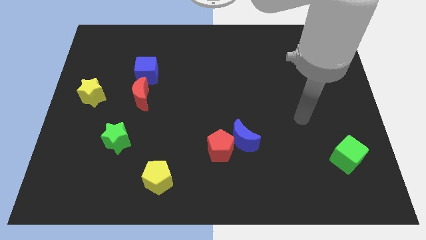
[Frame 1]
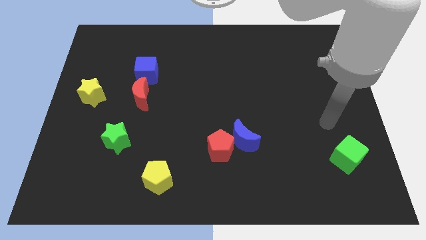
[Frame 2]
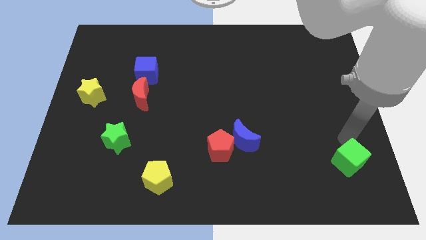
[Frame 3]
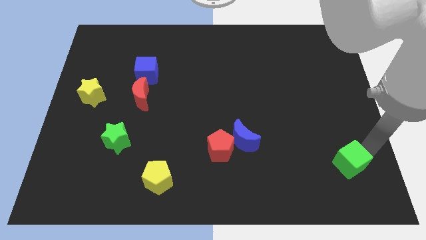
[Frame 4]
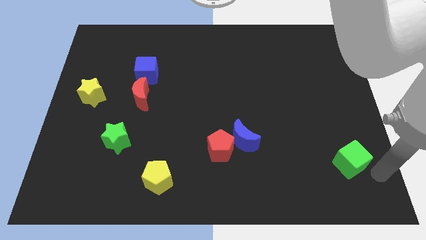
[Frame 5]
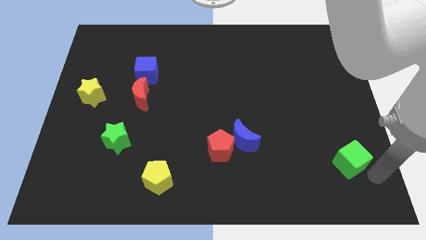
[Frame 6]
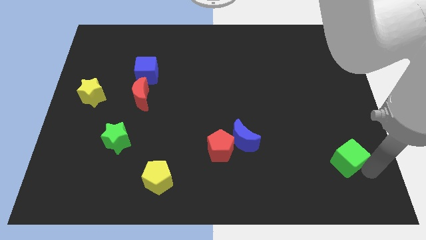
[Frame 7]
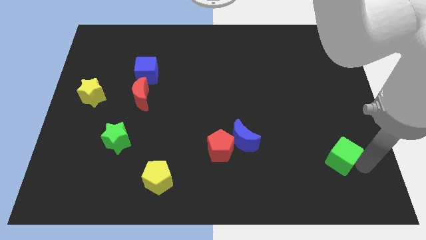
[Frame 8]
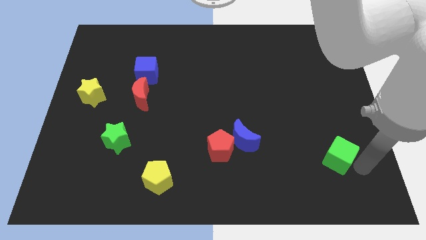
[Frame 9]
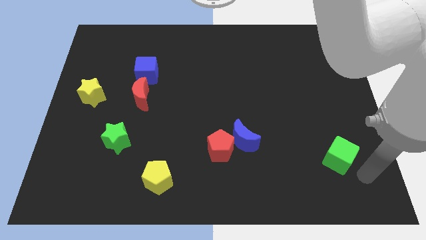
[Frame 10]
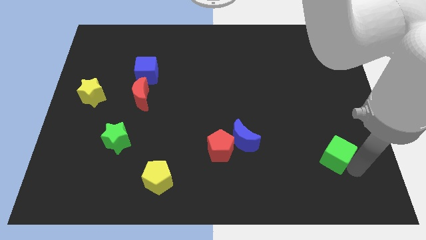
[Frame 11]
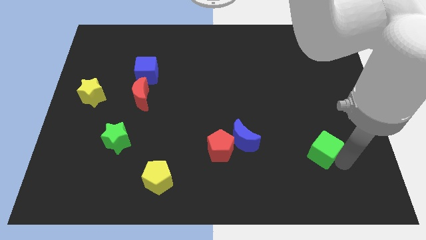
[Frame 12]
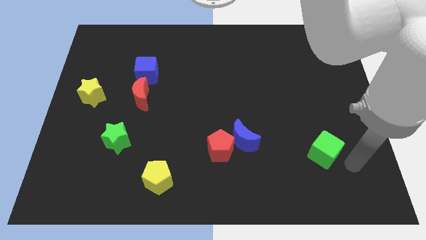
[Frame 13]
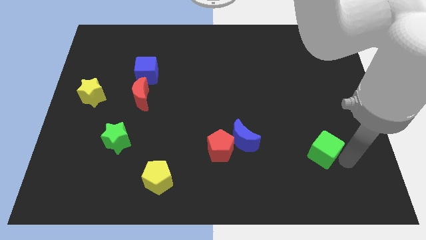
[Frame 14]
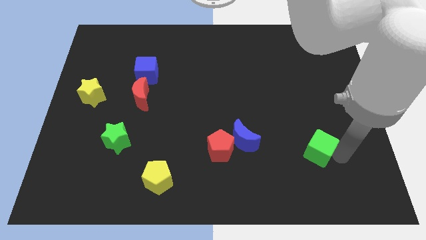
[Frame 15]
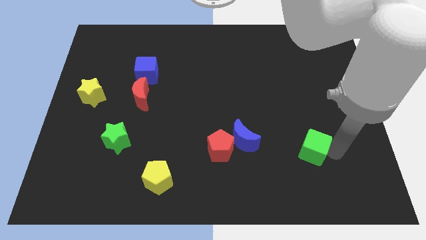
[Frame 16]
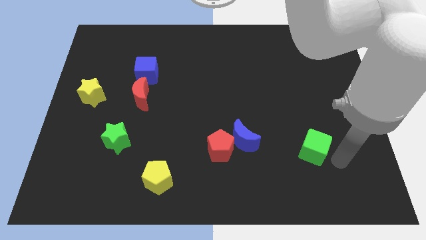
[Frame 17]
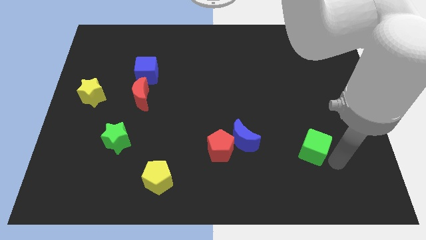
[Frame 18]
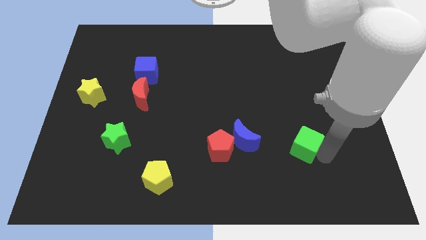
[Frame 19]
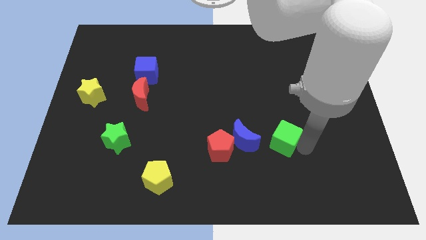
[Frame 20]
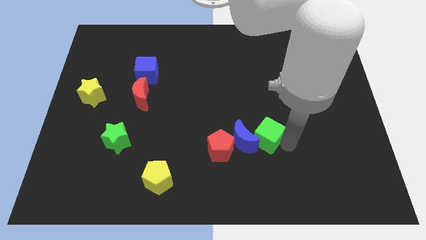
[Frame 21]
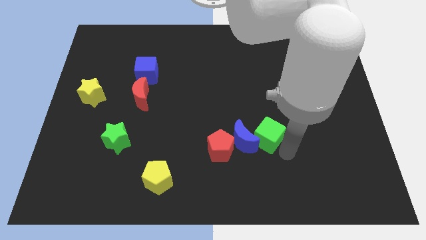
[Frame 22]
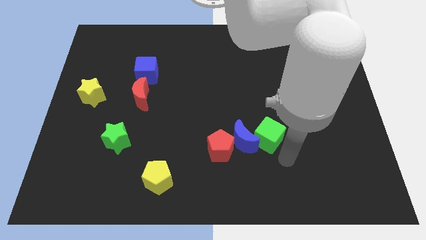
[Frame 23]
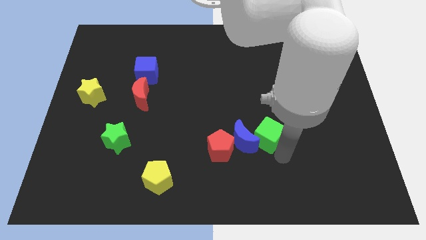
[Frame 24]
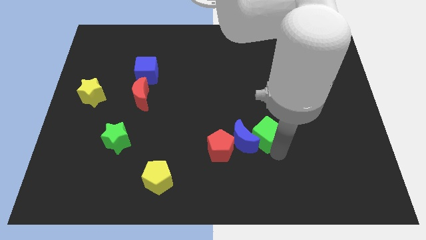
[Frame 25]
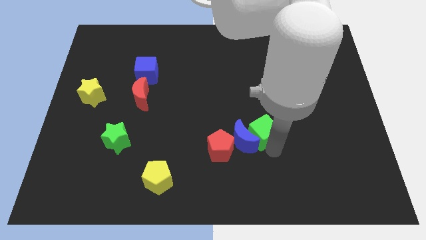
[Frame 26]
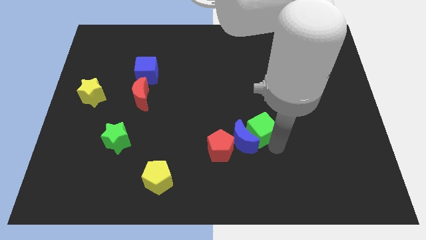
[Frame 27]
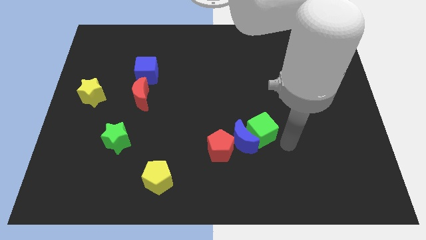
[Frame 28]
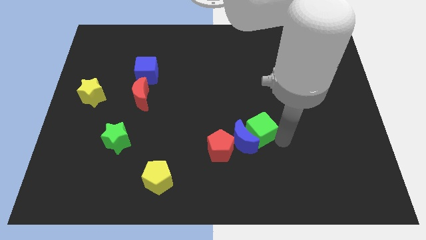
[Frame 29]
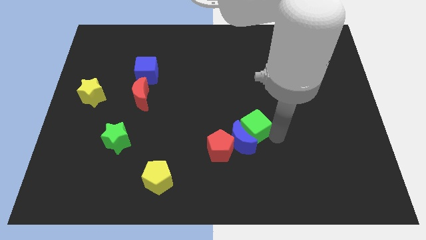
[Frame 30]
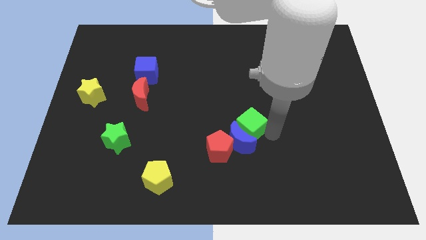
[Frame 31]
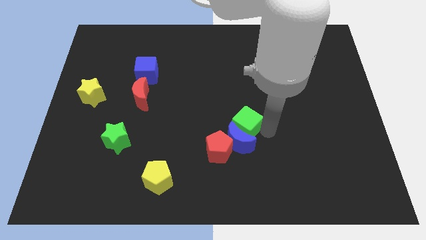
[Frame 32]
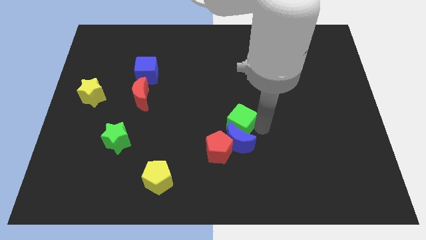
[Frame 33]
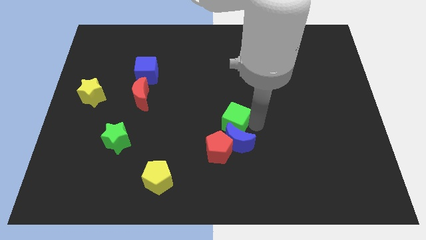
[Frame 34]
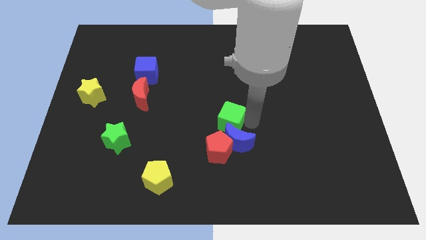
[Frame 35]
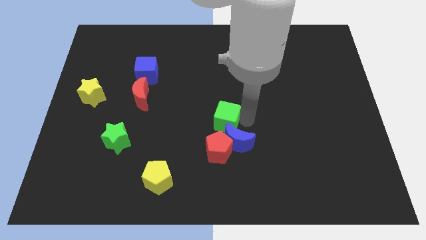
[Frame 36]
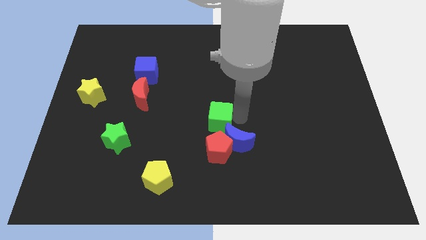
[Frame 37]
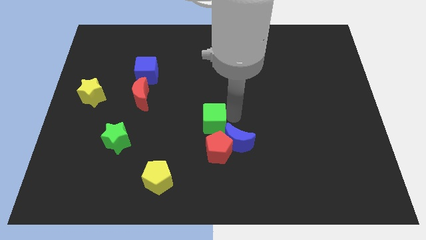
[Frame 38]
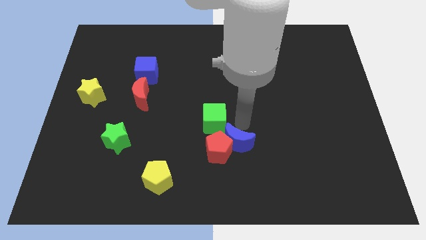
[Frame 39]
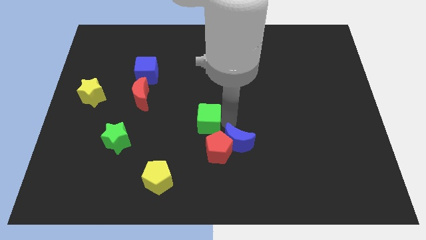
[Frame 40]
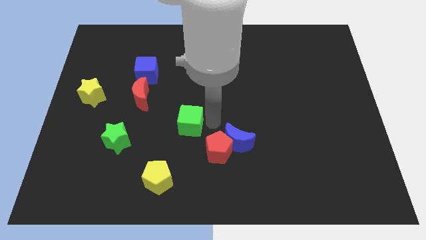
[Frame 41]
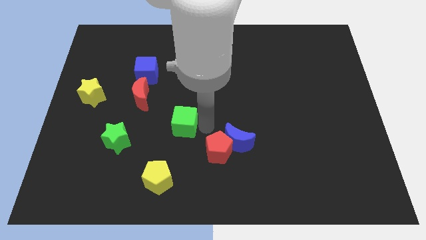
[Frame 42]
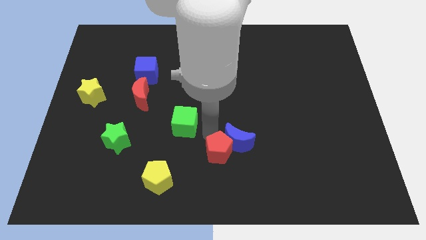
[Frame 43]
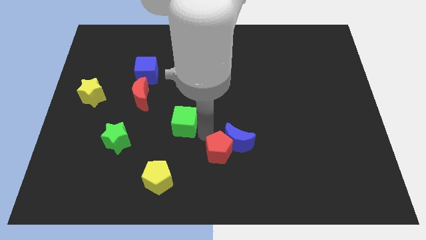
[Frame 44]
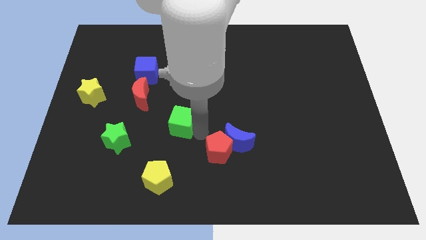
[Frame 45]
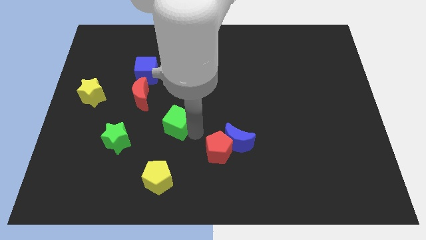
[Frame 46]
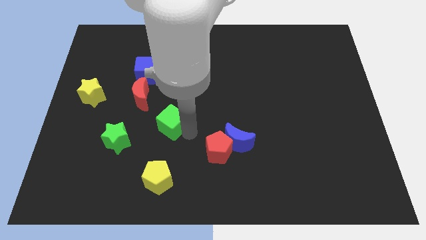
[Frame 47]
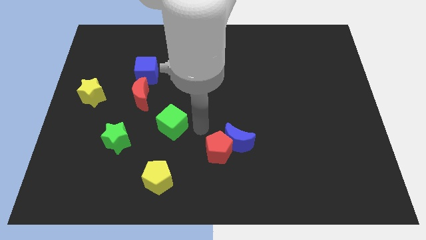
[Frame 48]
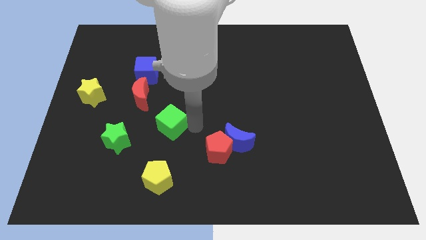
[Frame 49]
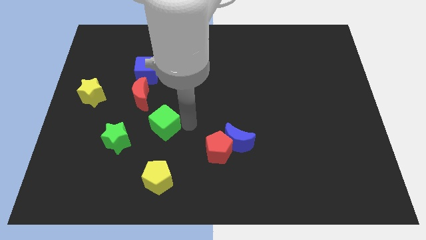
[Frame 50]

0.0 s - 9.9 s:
push the green cube to the top right of the green star

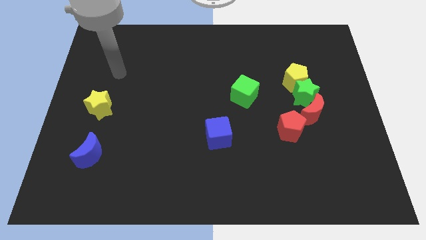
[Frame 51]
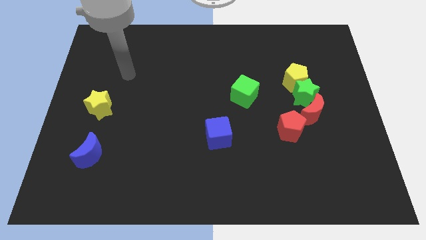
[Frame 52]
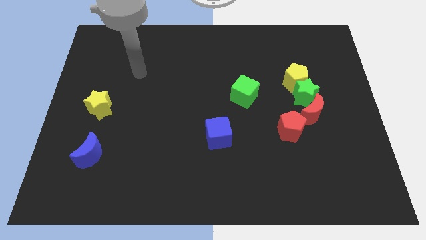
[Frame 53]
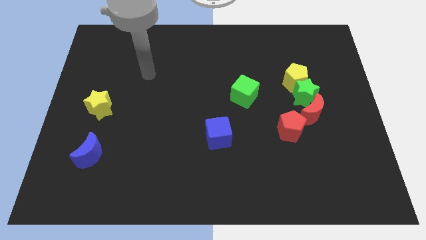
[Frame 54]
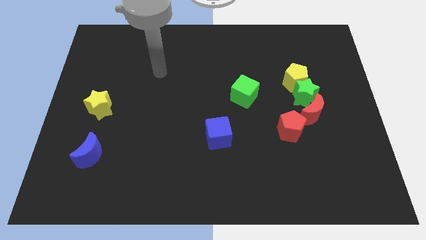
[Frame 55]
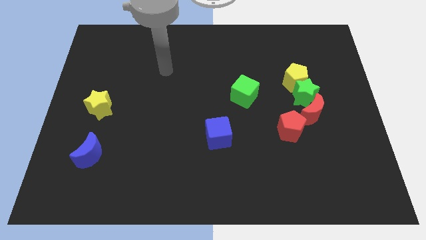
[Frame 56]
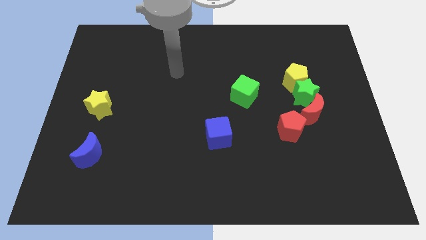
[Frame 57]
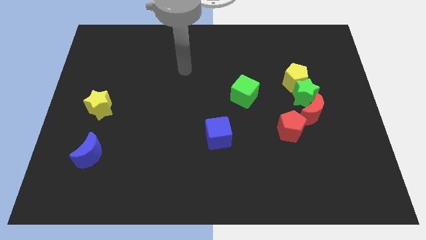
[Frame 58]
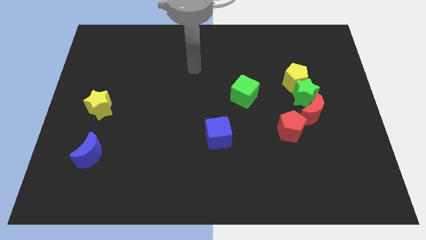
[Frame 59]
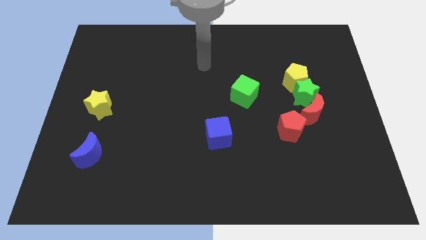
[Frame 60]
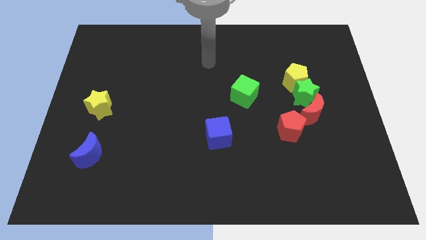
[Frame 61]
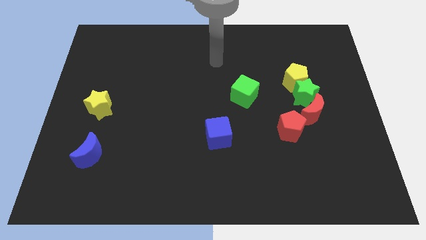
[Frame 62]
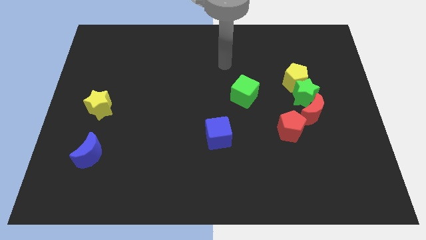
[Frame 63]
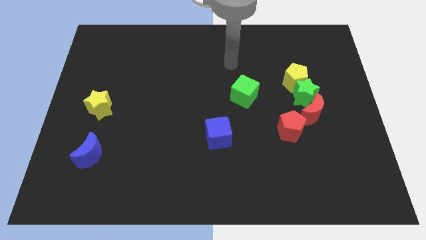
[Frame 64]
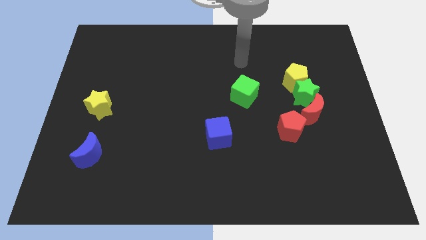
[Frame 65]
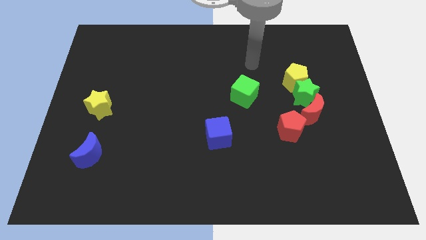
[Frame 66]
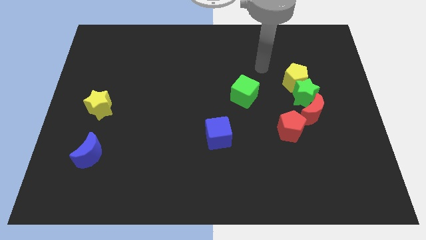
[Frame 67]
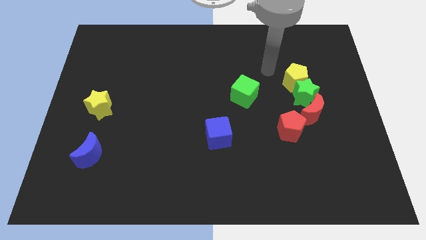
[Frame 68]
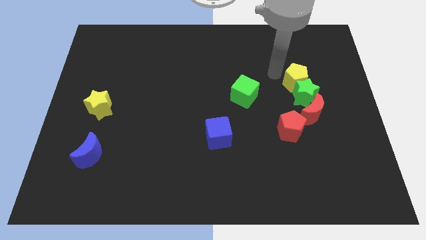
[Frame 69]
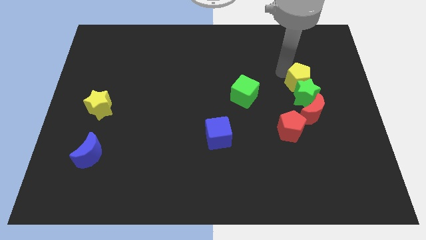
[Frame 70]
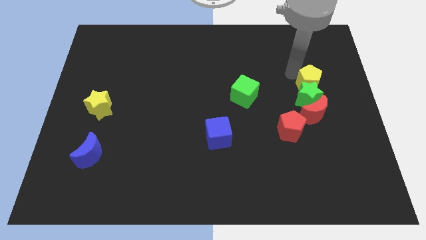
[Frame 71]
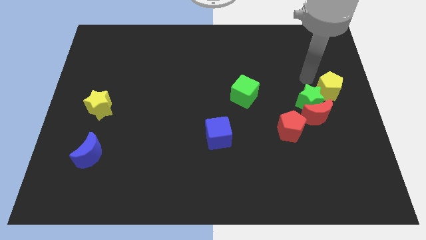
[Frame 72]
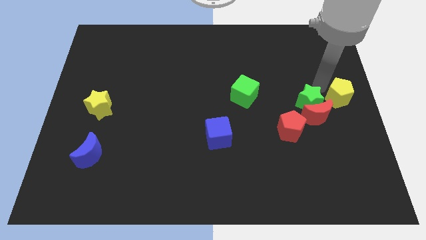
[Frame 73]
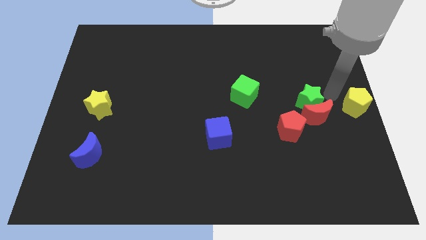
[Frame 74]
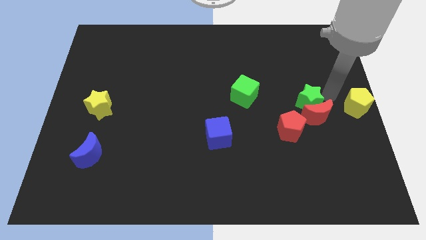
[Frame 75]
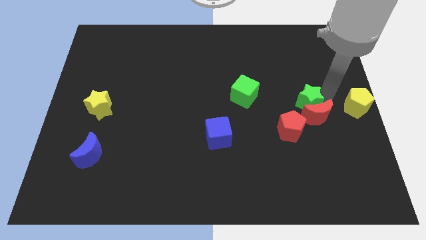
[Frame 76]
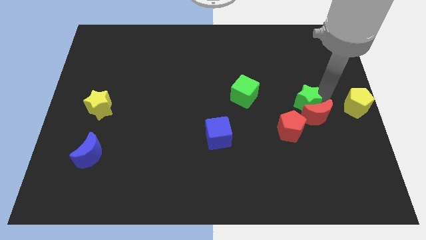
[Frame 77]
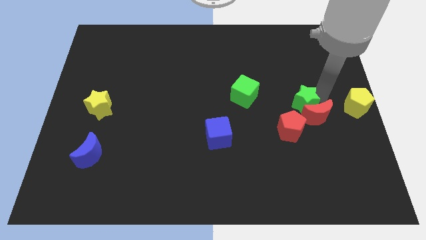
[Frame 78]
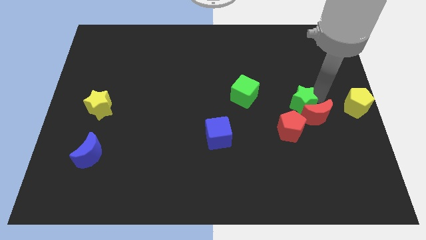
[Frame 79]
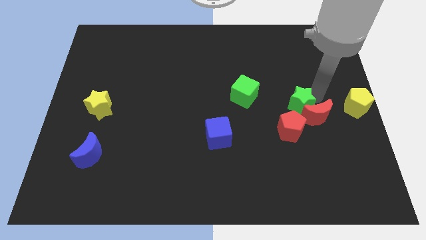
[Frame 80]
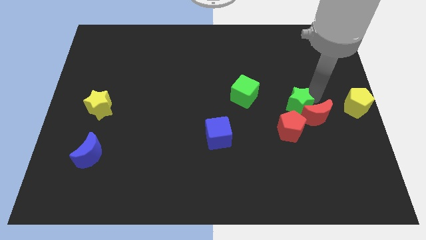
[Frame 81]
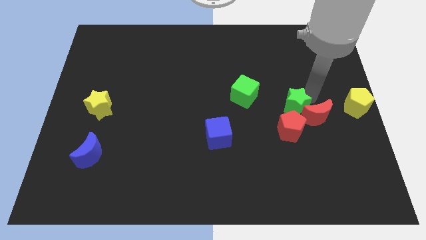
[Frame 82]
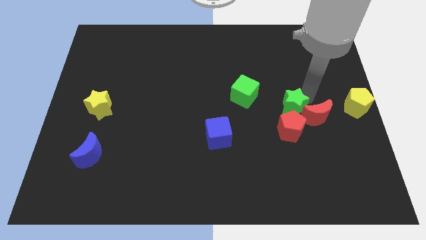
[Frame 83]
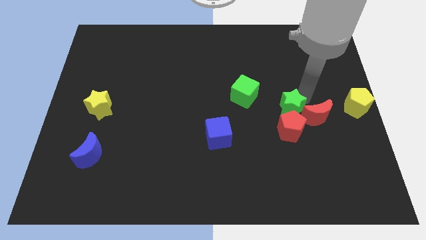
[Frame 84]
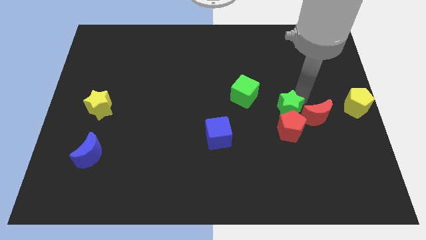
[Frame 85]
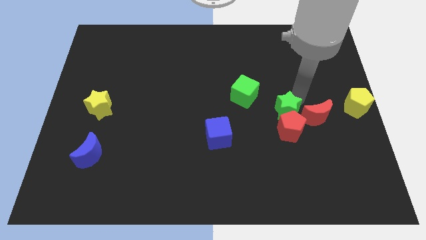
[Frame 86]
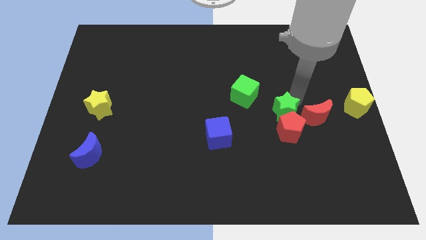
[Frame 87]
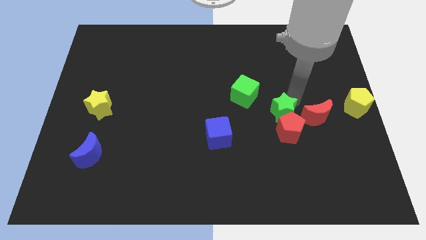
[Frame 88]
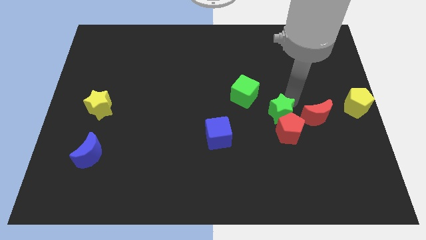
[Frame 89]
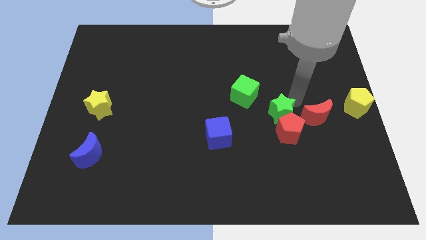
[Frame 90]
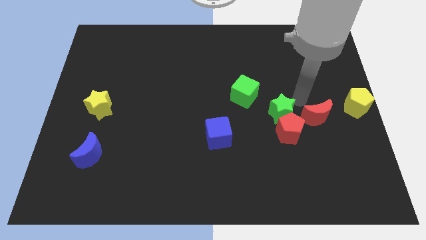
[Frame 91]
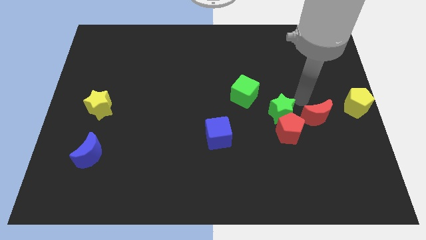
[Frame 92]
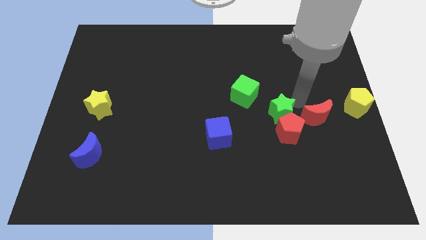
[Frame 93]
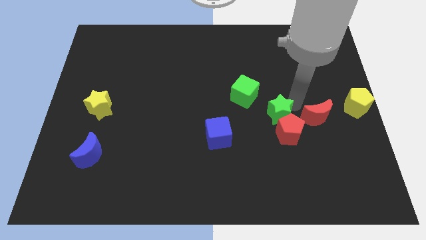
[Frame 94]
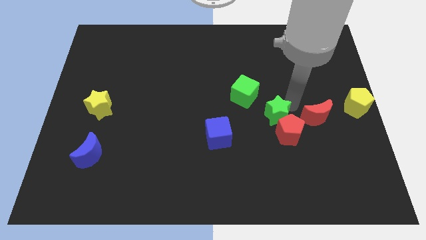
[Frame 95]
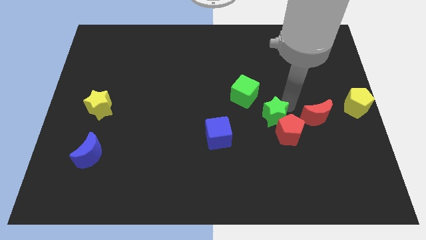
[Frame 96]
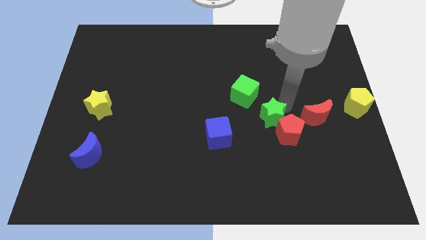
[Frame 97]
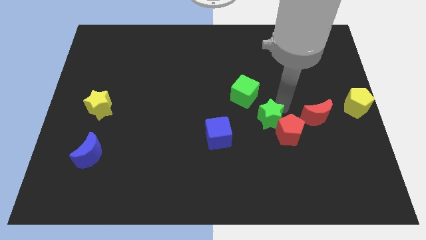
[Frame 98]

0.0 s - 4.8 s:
slide the green star right of the blue cube
